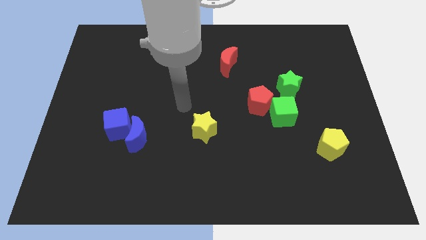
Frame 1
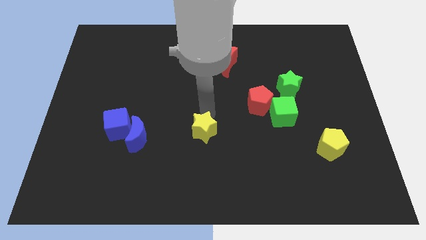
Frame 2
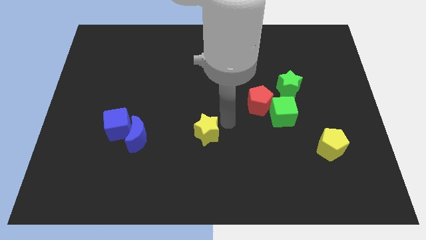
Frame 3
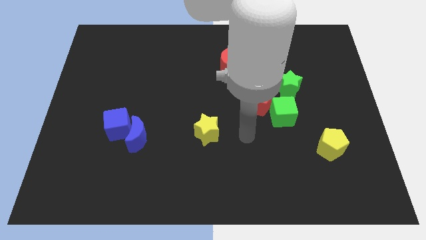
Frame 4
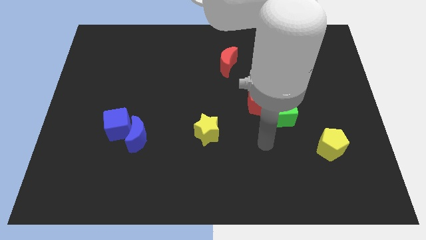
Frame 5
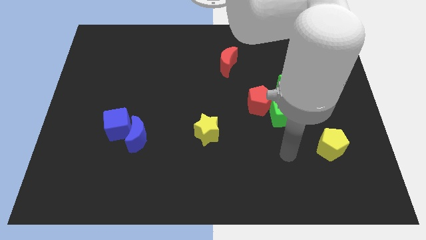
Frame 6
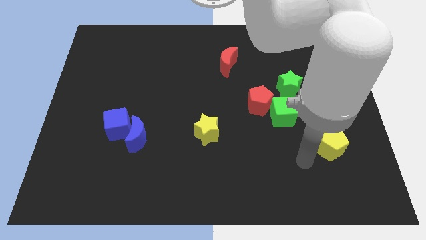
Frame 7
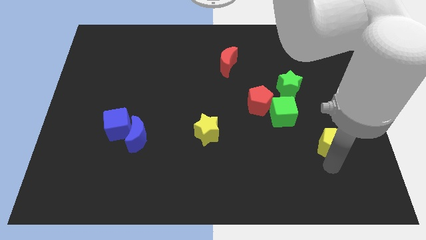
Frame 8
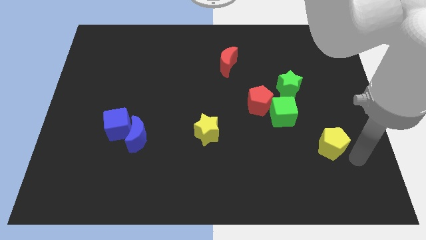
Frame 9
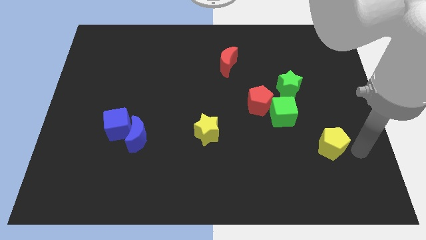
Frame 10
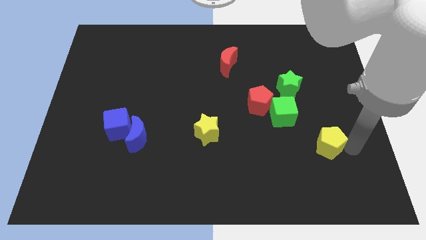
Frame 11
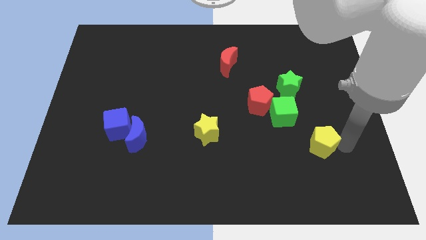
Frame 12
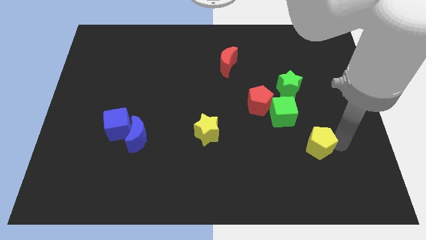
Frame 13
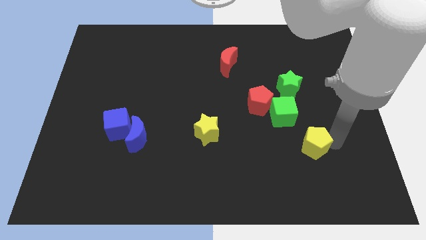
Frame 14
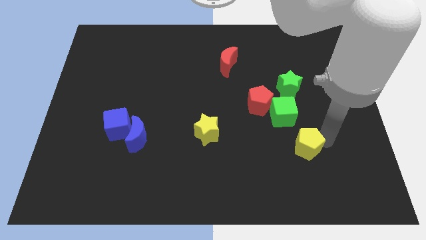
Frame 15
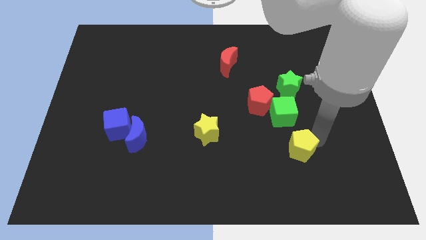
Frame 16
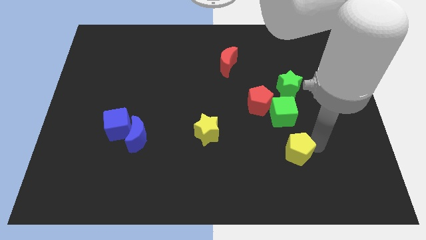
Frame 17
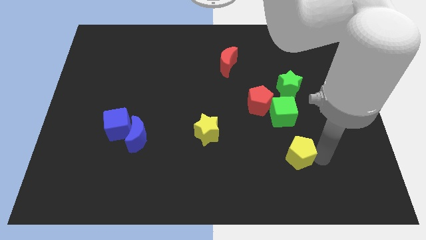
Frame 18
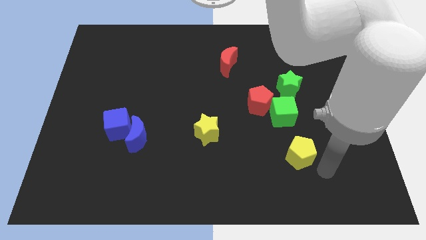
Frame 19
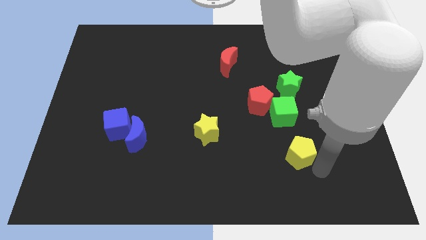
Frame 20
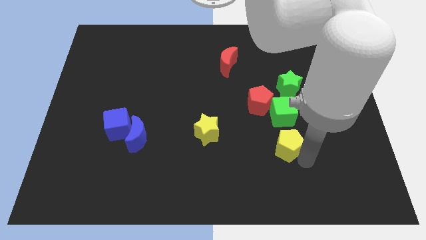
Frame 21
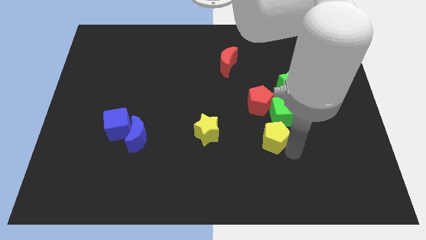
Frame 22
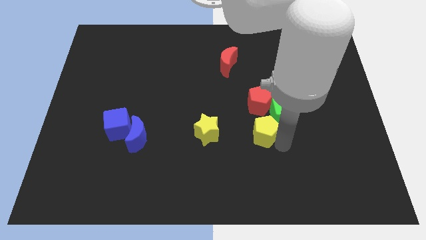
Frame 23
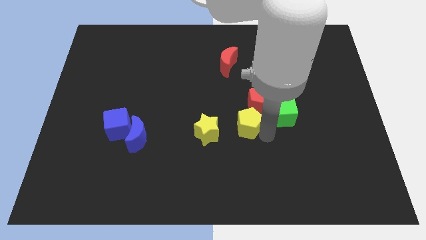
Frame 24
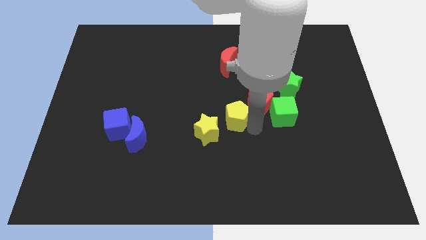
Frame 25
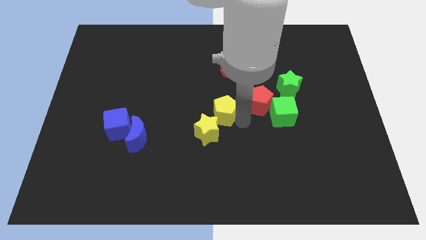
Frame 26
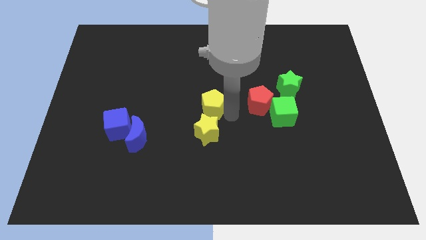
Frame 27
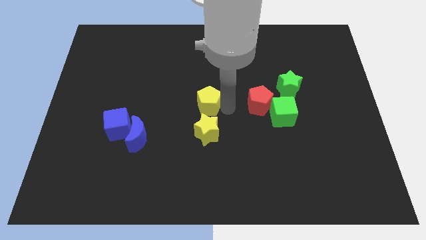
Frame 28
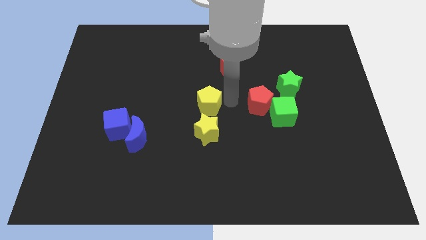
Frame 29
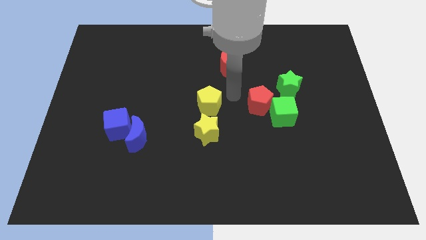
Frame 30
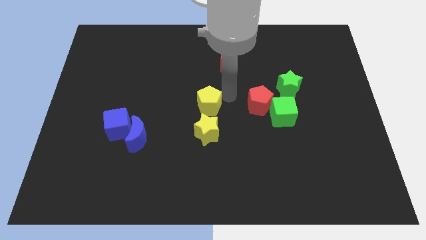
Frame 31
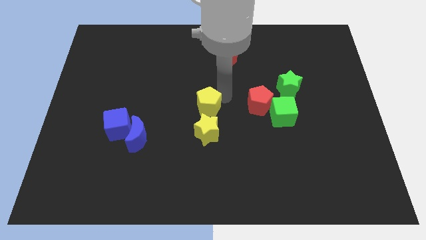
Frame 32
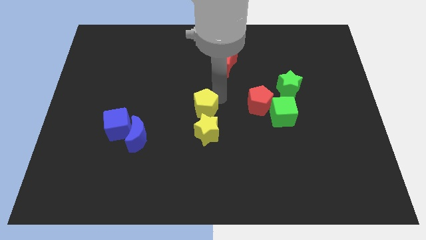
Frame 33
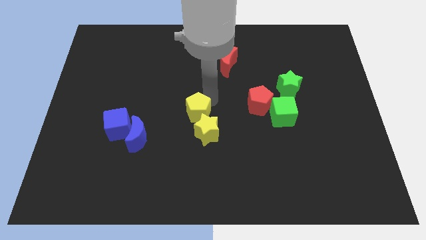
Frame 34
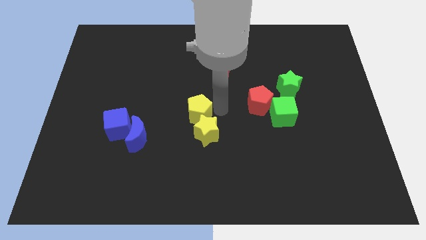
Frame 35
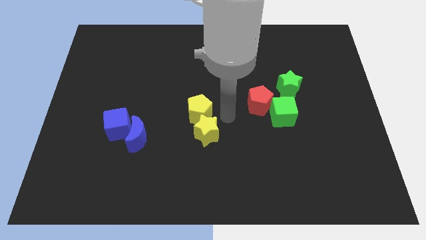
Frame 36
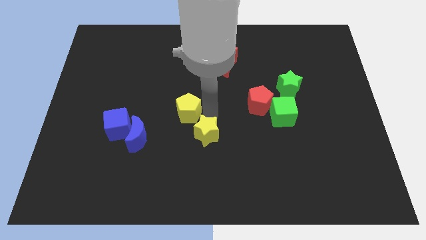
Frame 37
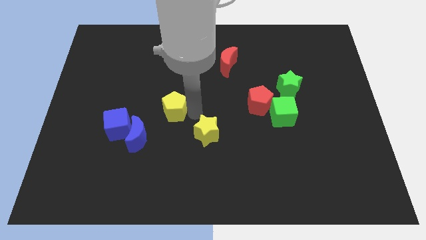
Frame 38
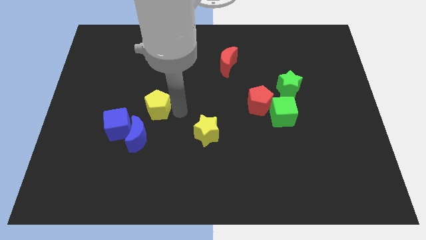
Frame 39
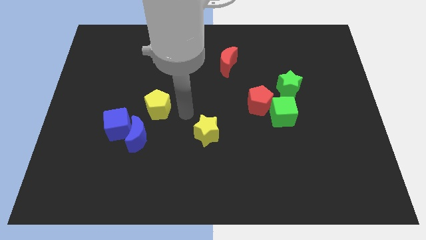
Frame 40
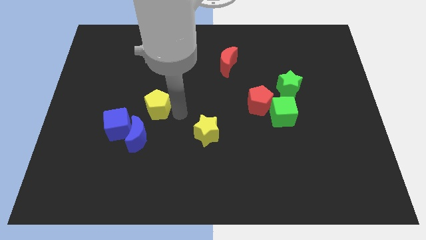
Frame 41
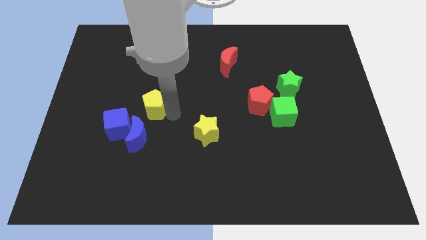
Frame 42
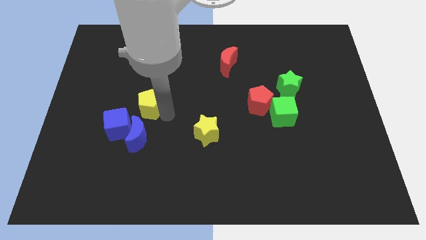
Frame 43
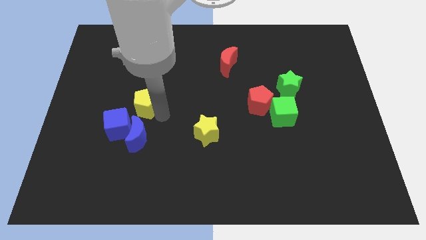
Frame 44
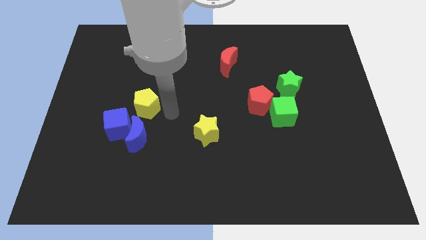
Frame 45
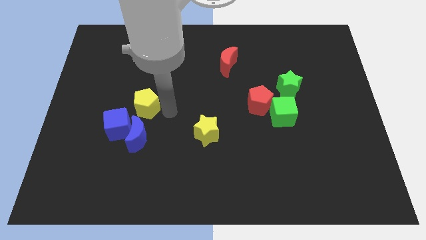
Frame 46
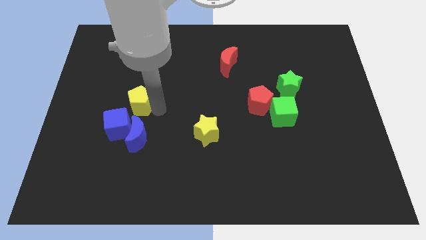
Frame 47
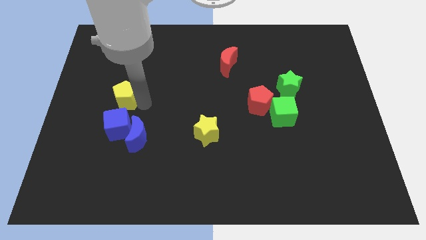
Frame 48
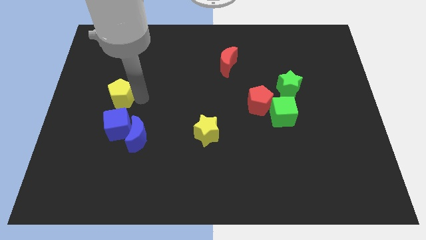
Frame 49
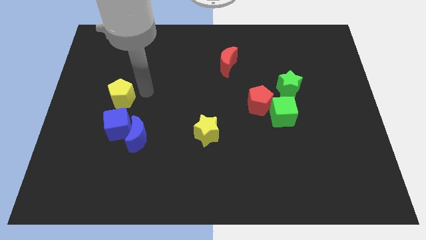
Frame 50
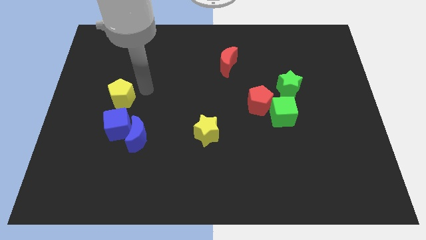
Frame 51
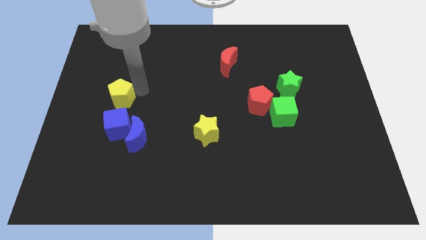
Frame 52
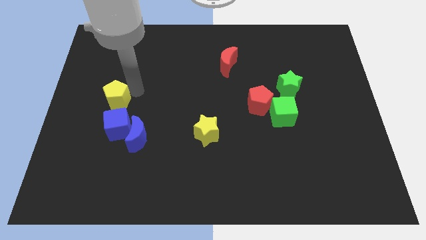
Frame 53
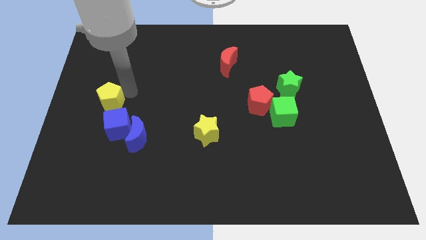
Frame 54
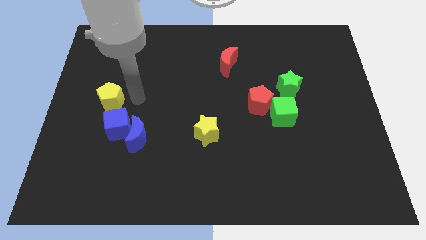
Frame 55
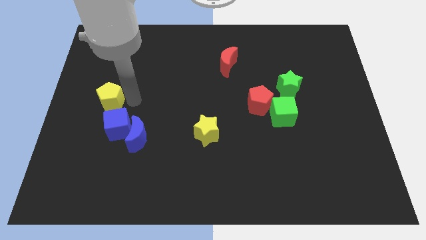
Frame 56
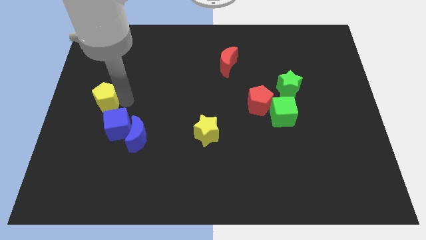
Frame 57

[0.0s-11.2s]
push the yellow pentagon to the left side of the board

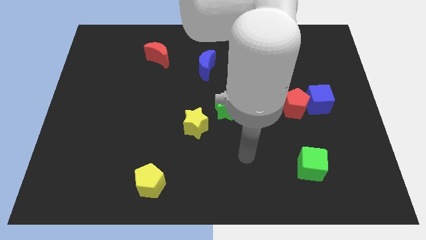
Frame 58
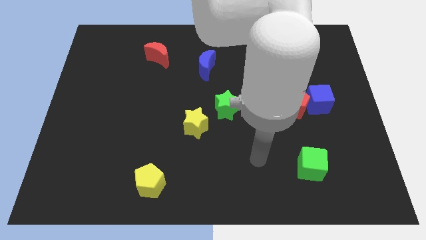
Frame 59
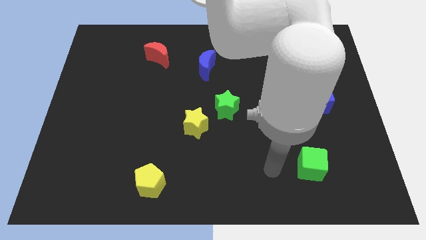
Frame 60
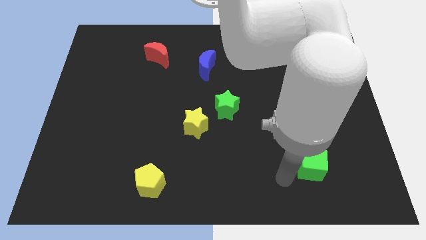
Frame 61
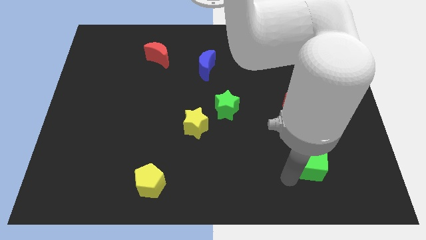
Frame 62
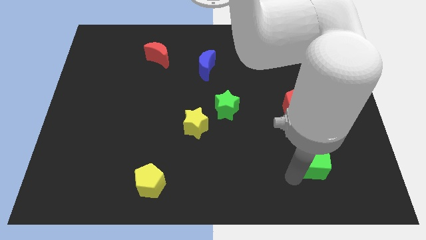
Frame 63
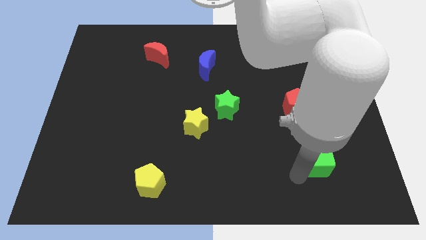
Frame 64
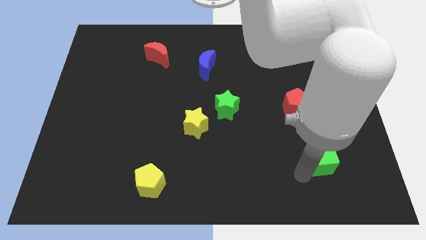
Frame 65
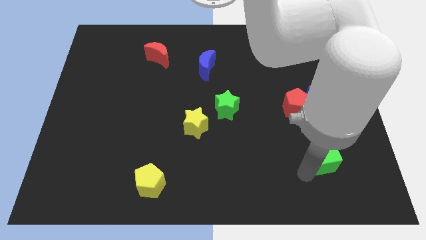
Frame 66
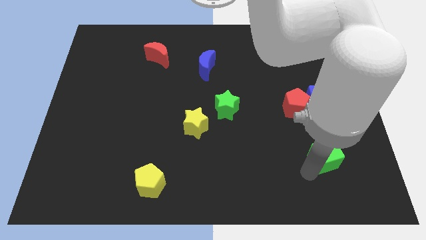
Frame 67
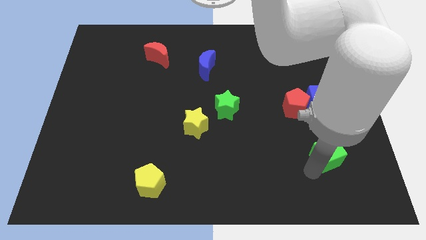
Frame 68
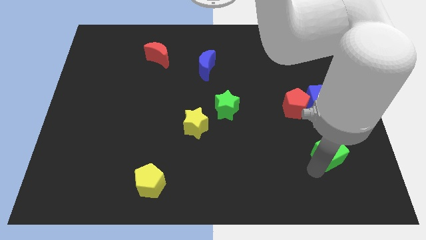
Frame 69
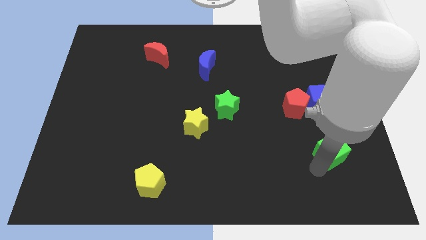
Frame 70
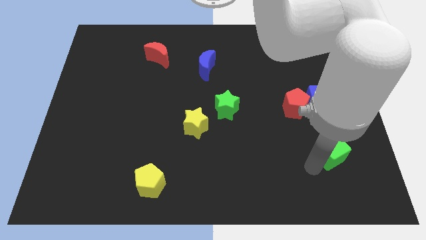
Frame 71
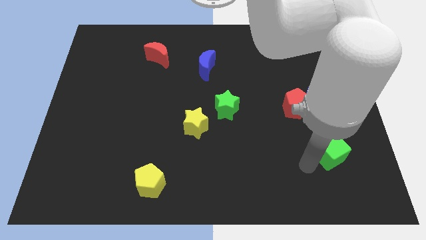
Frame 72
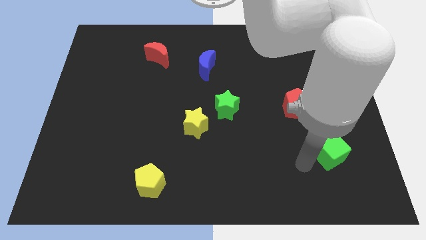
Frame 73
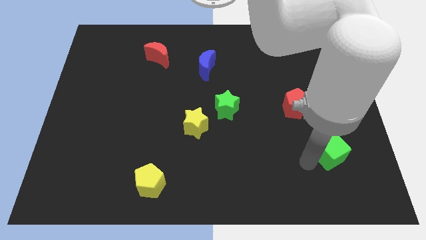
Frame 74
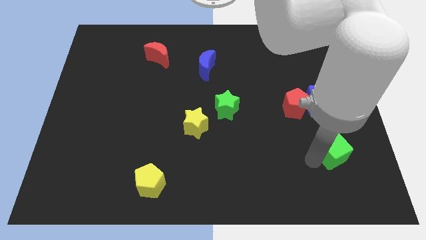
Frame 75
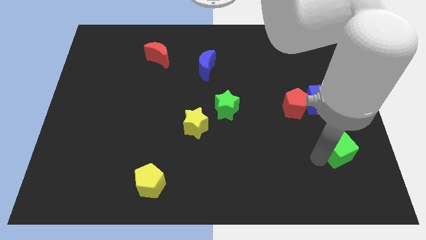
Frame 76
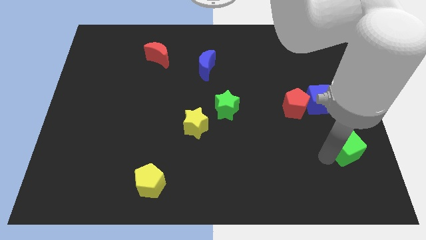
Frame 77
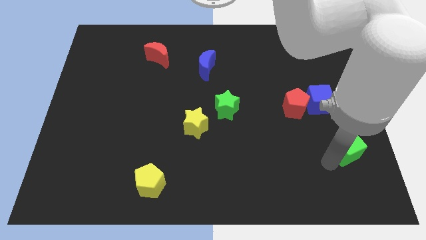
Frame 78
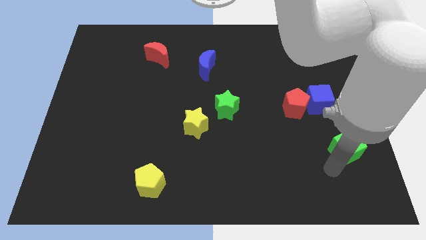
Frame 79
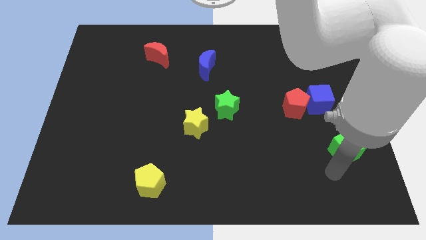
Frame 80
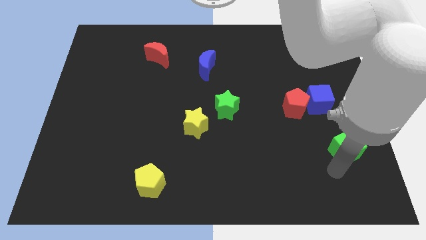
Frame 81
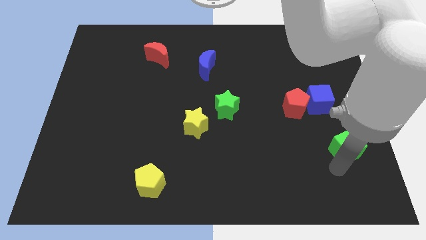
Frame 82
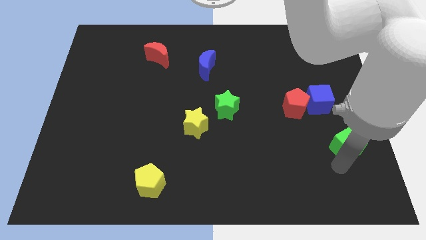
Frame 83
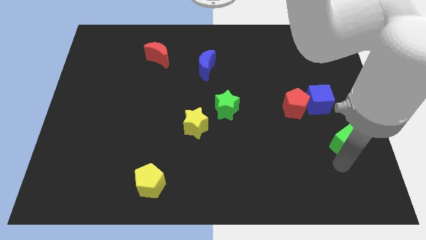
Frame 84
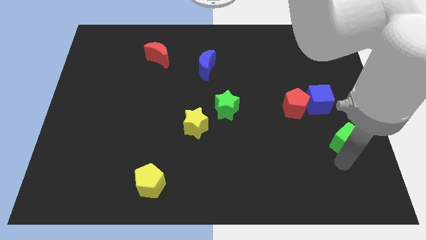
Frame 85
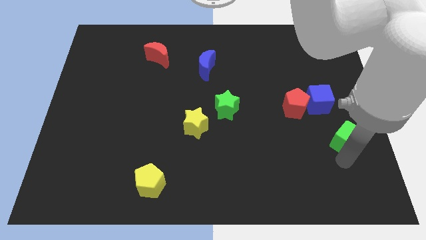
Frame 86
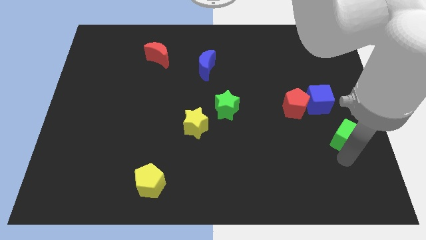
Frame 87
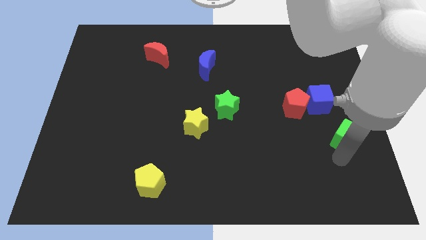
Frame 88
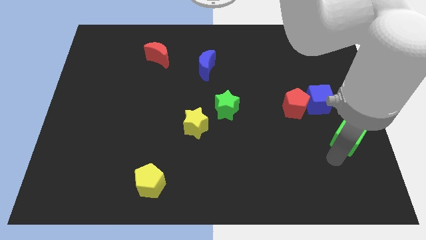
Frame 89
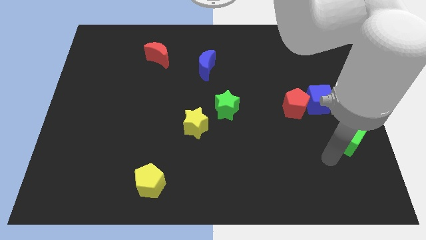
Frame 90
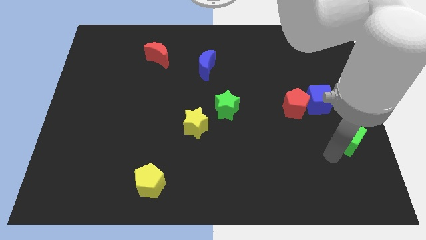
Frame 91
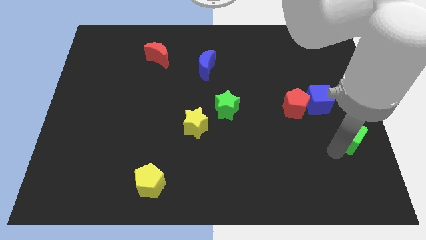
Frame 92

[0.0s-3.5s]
slide the green cube to the right side of the board
